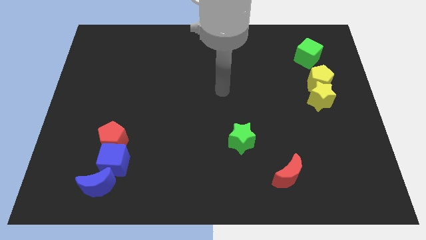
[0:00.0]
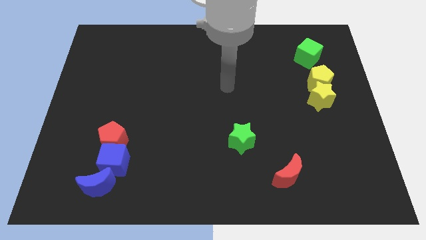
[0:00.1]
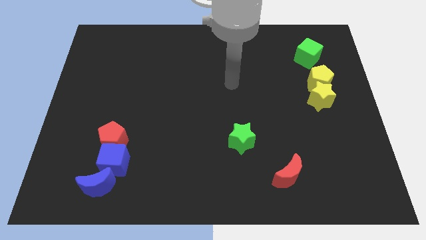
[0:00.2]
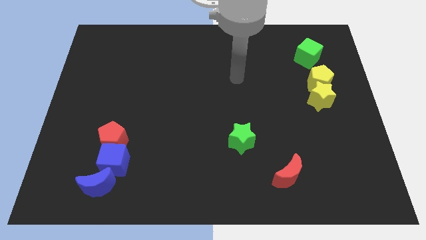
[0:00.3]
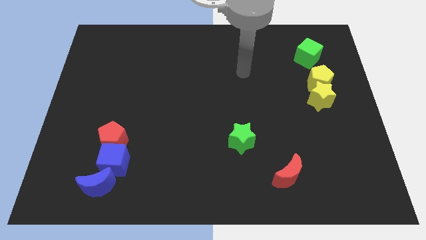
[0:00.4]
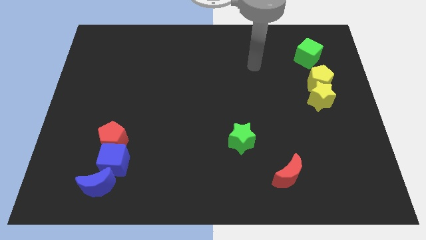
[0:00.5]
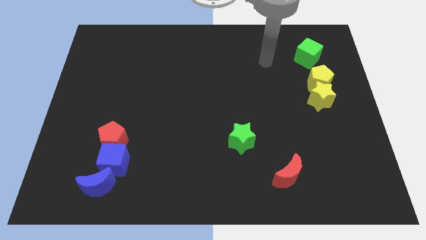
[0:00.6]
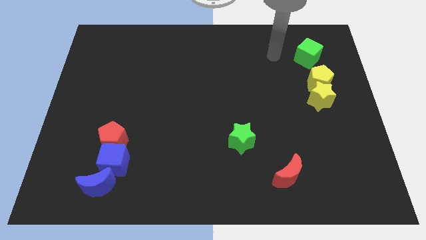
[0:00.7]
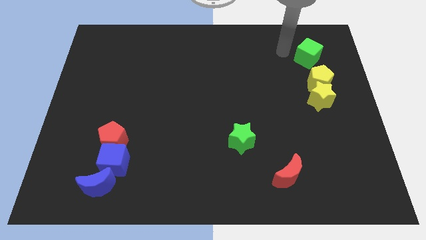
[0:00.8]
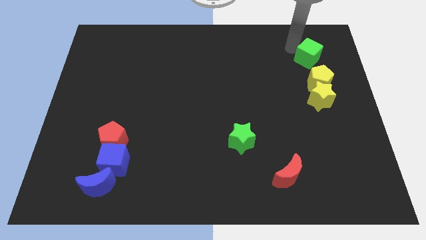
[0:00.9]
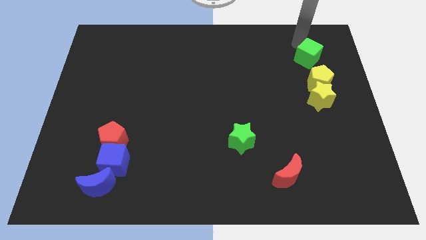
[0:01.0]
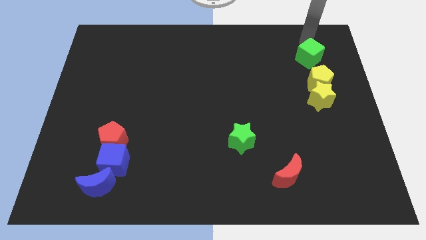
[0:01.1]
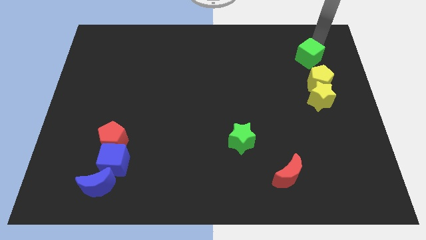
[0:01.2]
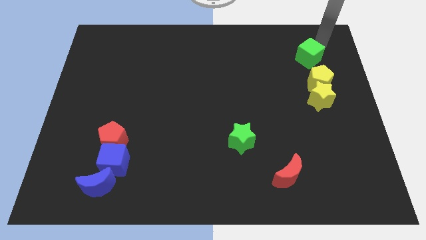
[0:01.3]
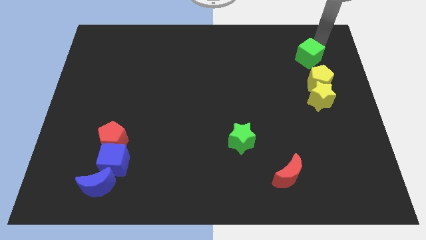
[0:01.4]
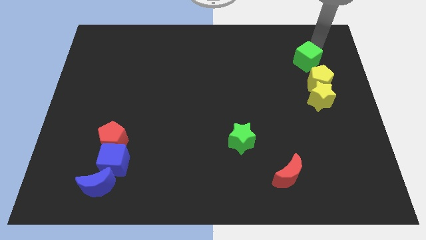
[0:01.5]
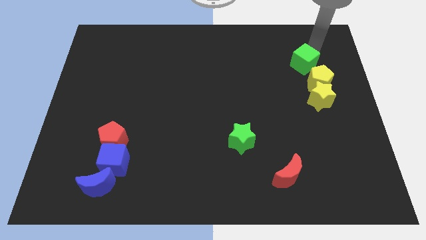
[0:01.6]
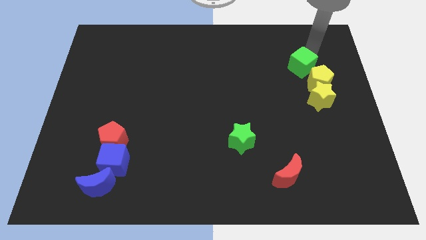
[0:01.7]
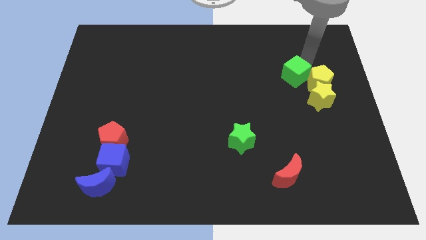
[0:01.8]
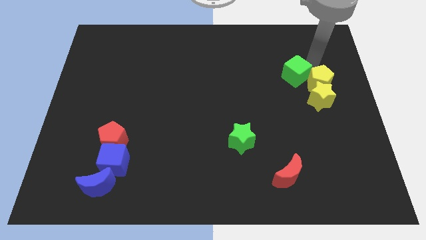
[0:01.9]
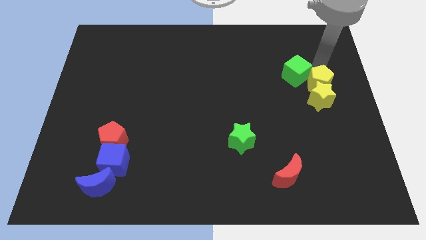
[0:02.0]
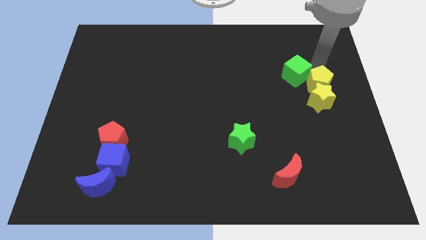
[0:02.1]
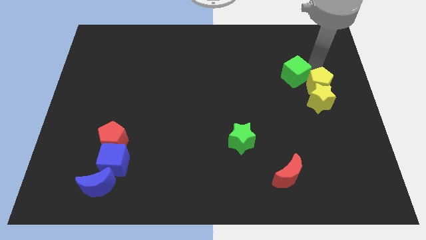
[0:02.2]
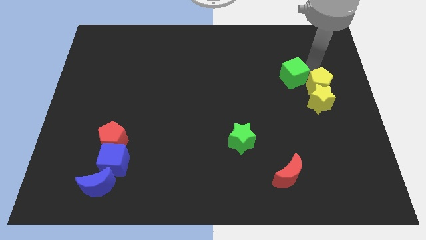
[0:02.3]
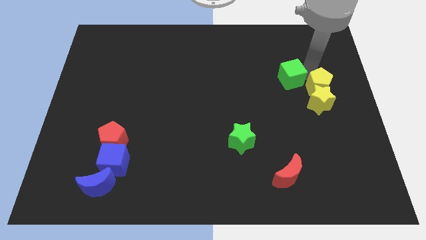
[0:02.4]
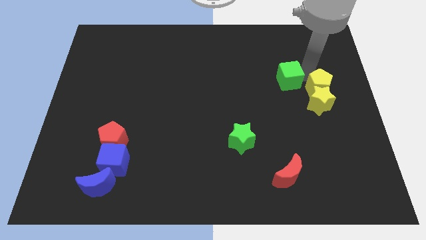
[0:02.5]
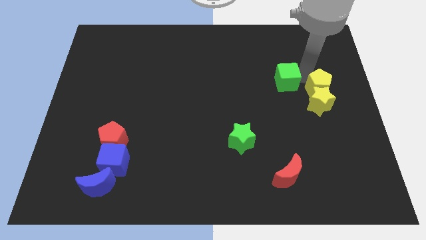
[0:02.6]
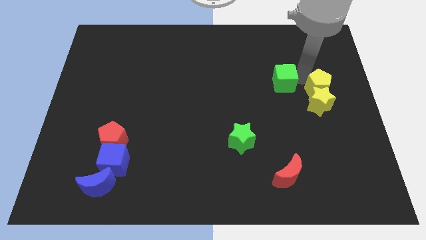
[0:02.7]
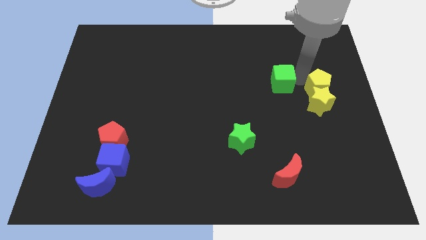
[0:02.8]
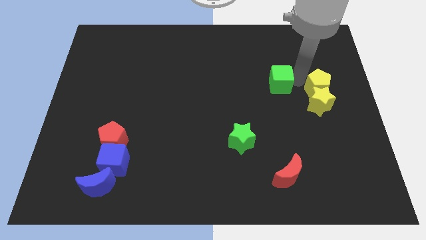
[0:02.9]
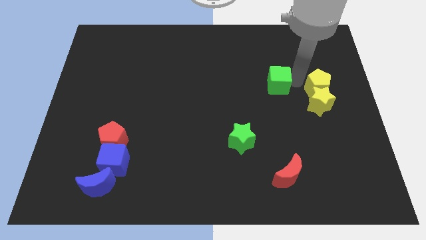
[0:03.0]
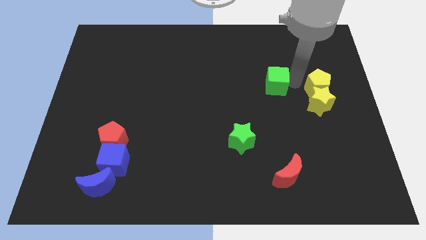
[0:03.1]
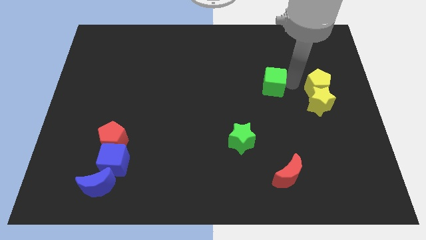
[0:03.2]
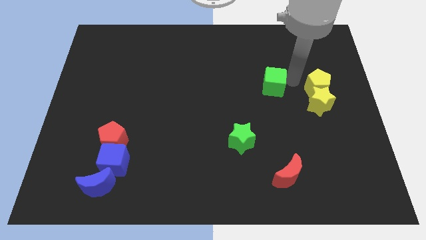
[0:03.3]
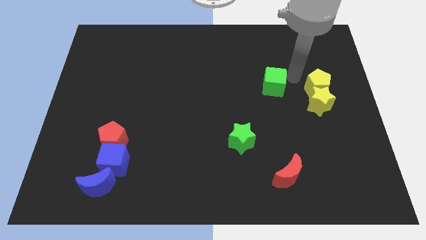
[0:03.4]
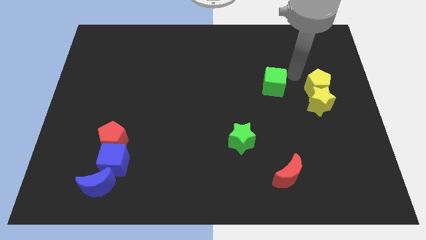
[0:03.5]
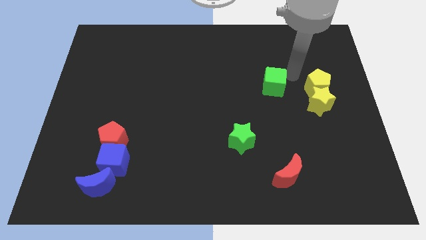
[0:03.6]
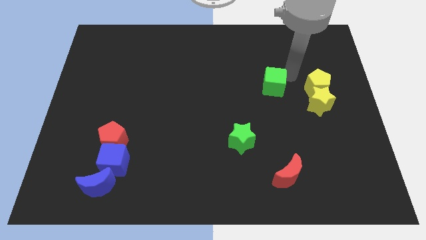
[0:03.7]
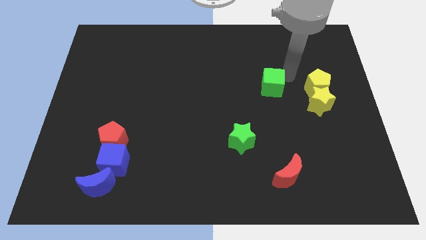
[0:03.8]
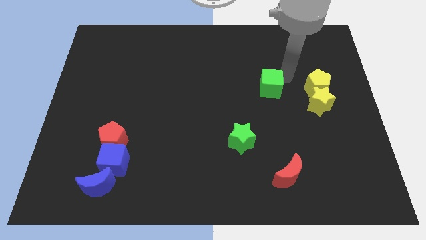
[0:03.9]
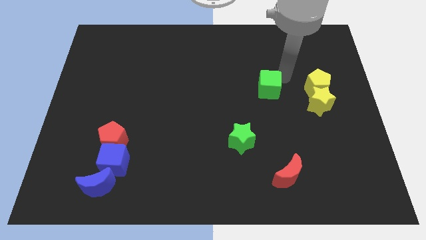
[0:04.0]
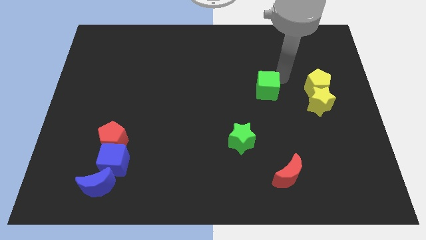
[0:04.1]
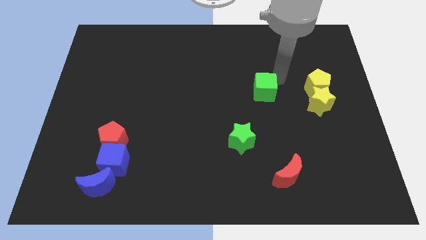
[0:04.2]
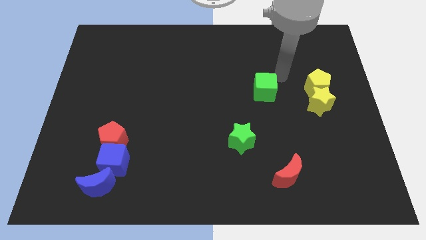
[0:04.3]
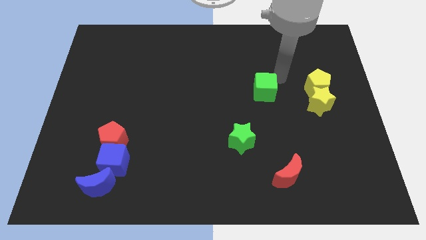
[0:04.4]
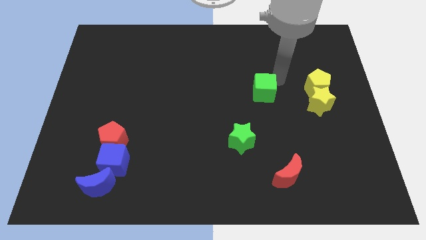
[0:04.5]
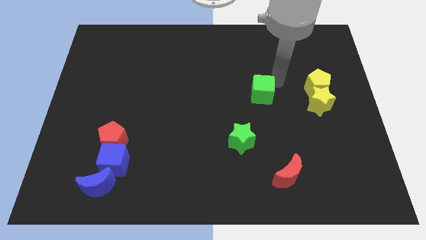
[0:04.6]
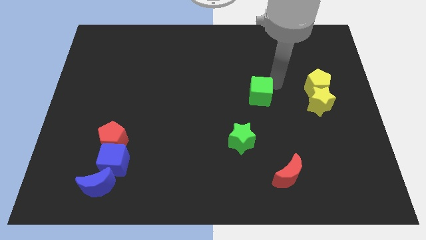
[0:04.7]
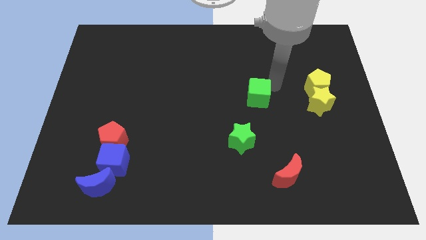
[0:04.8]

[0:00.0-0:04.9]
slide the green cube diagonally down and left

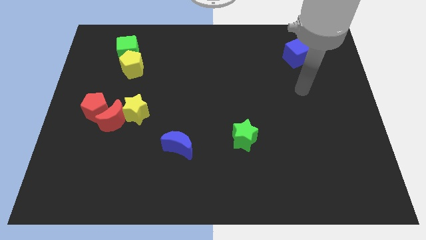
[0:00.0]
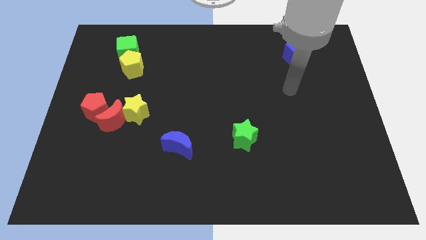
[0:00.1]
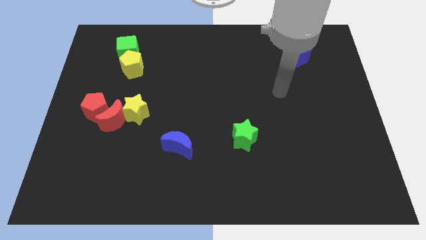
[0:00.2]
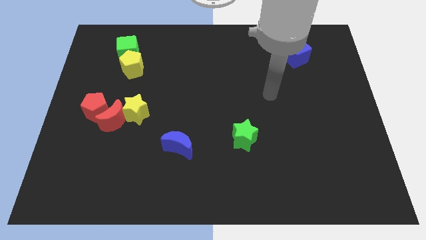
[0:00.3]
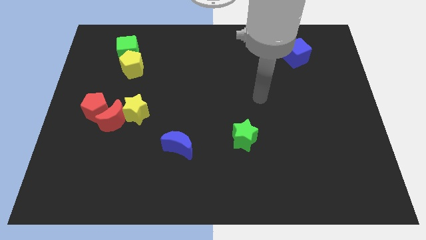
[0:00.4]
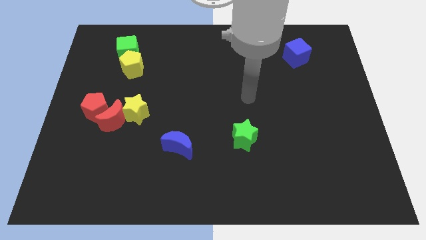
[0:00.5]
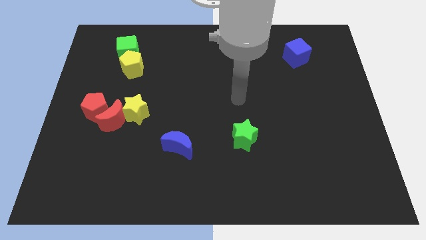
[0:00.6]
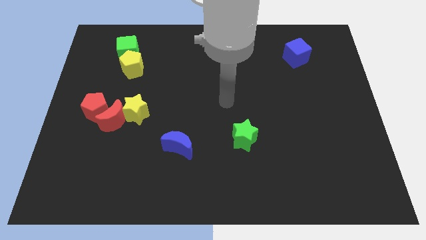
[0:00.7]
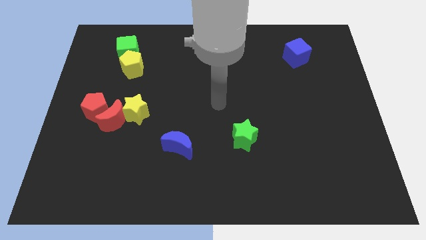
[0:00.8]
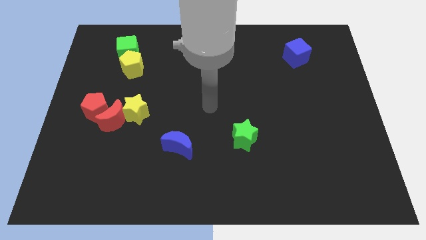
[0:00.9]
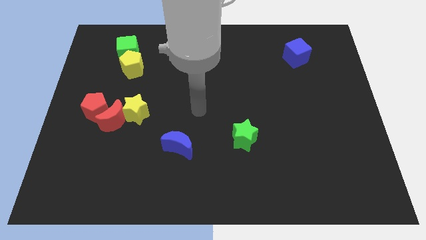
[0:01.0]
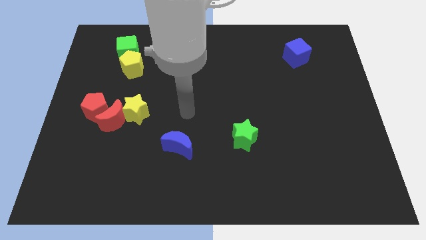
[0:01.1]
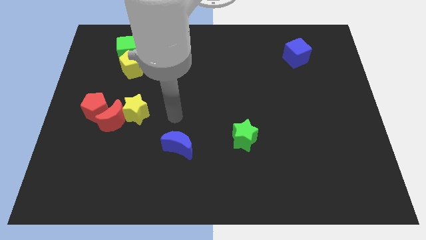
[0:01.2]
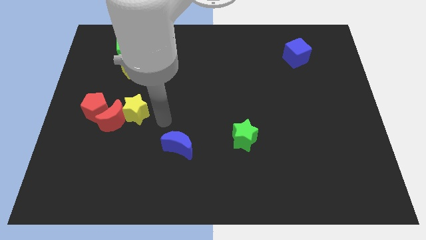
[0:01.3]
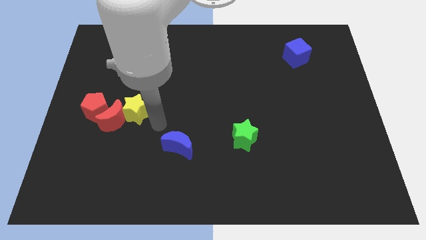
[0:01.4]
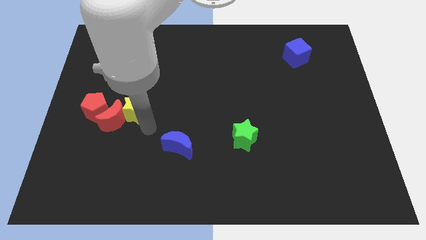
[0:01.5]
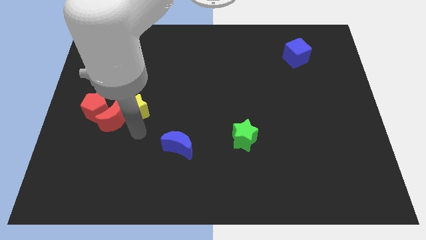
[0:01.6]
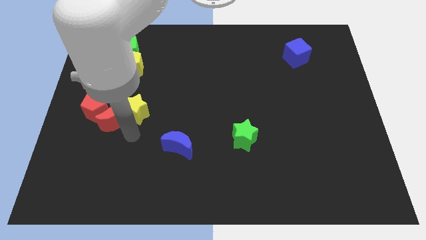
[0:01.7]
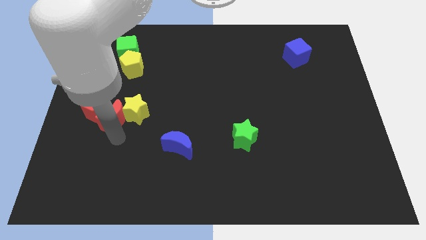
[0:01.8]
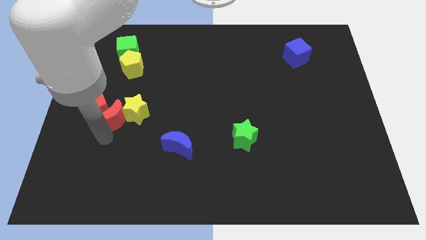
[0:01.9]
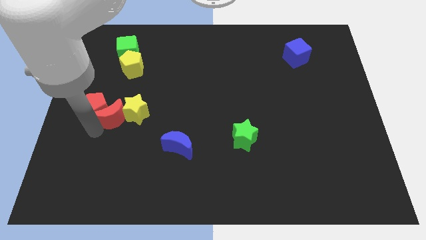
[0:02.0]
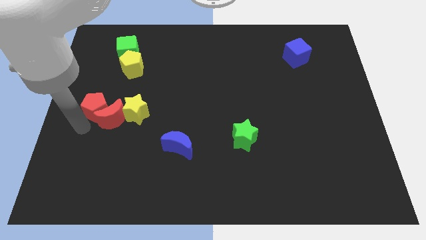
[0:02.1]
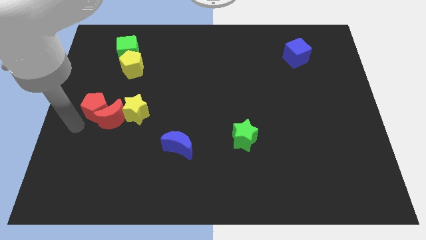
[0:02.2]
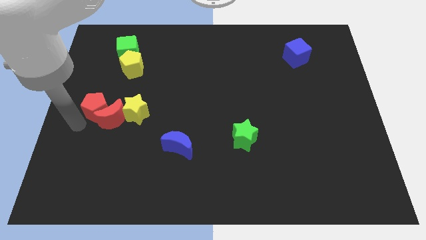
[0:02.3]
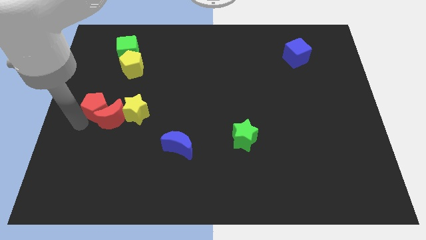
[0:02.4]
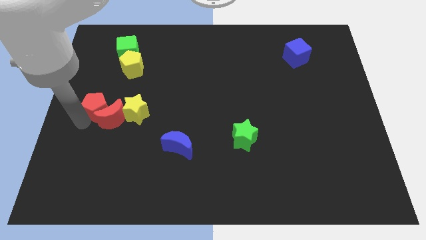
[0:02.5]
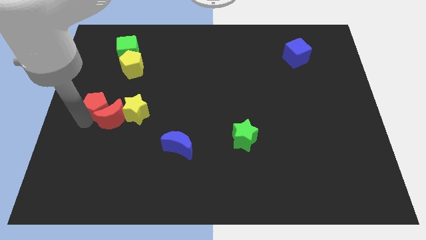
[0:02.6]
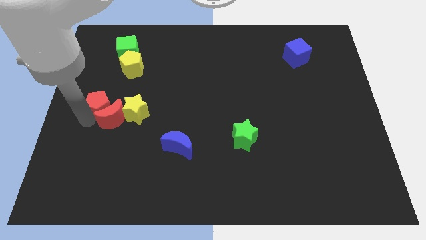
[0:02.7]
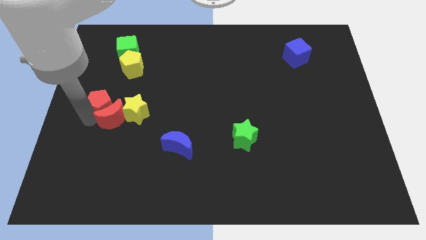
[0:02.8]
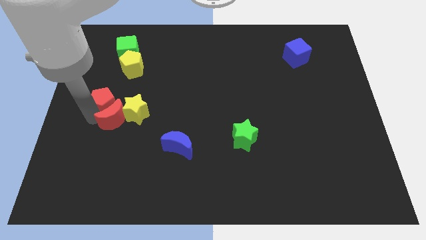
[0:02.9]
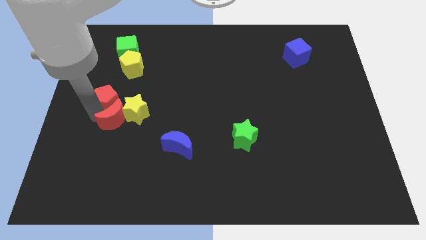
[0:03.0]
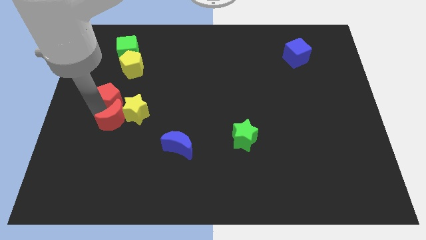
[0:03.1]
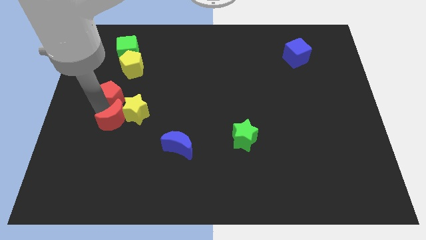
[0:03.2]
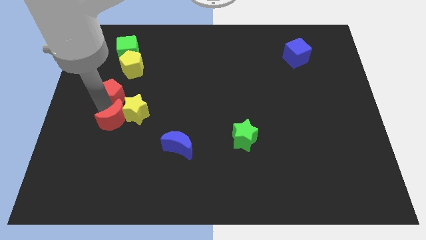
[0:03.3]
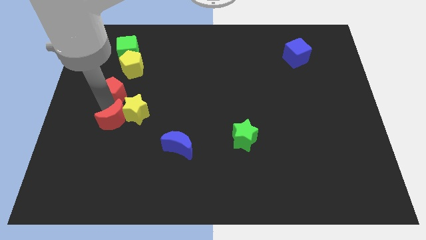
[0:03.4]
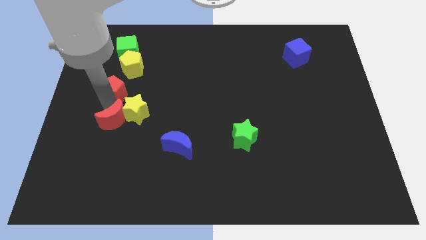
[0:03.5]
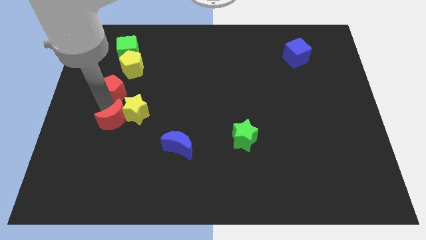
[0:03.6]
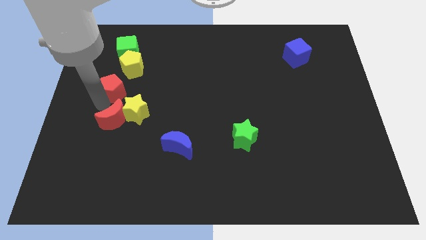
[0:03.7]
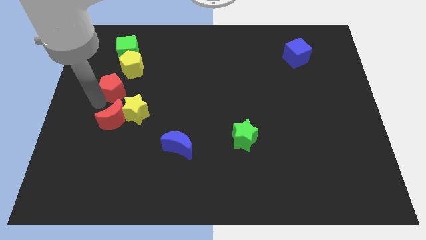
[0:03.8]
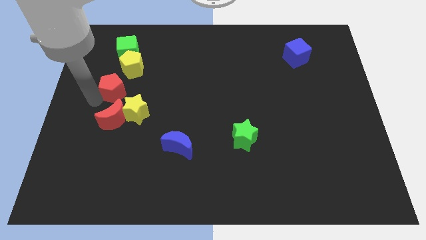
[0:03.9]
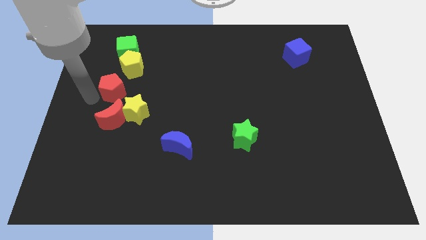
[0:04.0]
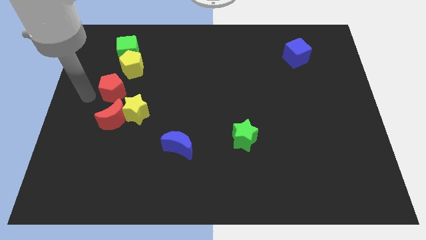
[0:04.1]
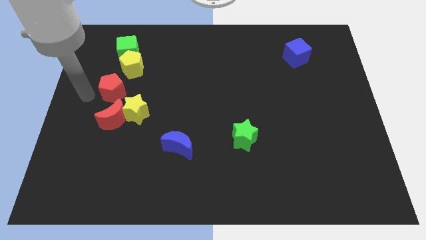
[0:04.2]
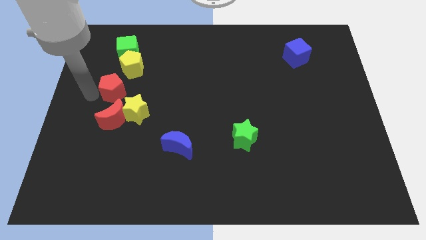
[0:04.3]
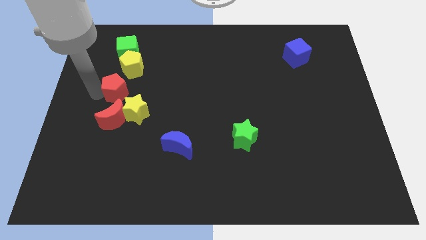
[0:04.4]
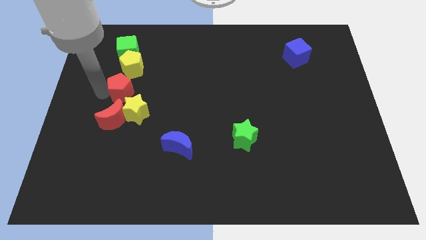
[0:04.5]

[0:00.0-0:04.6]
move the red pentagon slightly diagonally up and right
